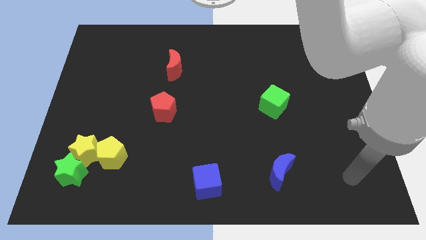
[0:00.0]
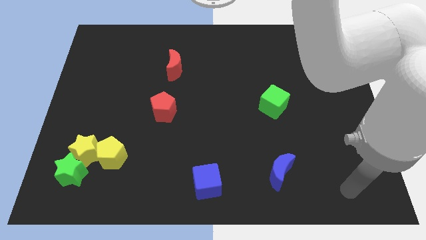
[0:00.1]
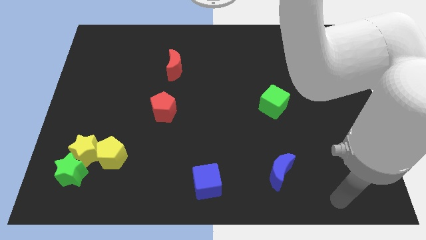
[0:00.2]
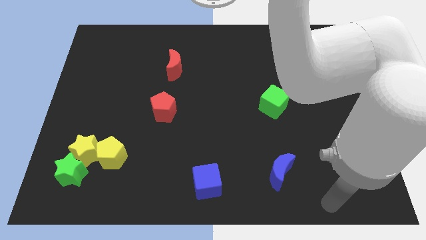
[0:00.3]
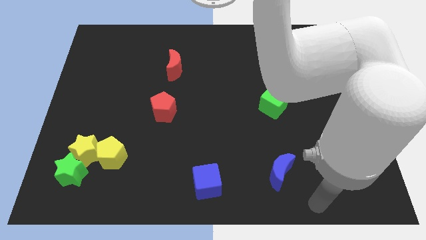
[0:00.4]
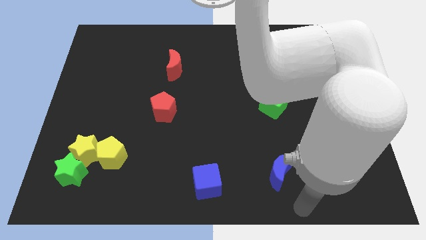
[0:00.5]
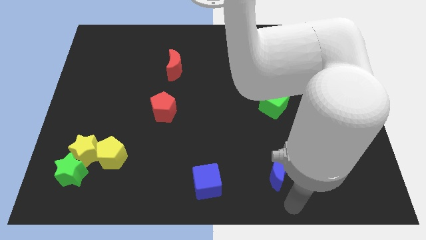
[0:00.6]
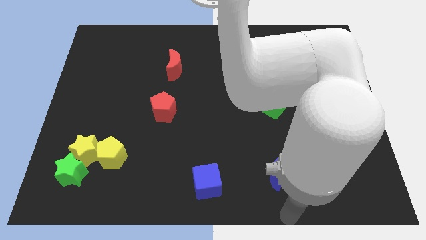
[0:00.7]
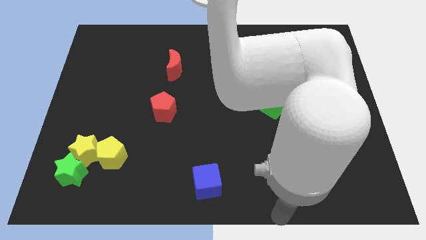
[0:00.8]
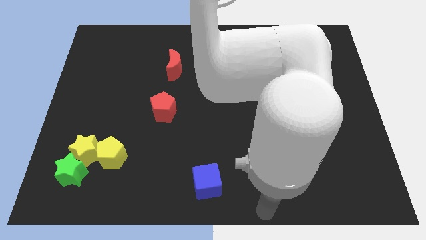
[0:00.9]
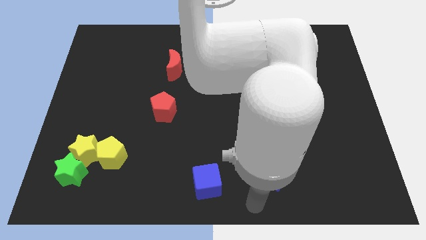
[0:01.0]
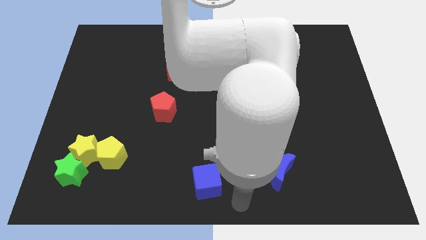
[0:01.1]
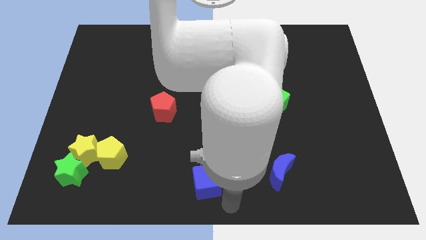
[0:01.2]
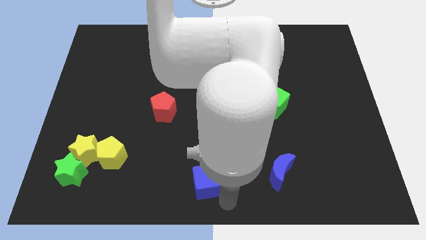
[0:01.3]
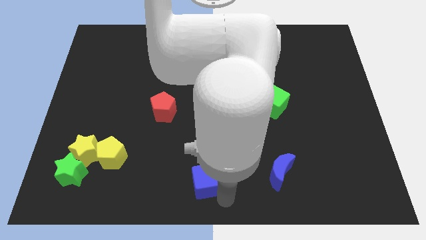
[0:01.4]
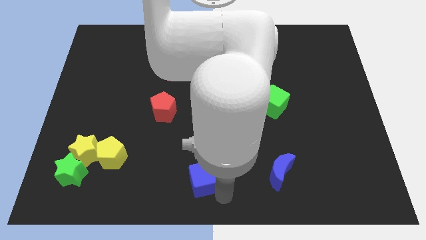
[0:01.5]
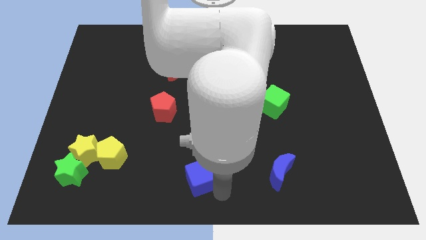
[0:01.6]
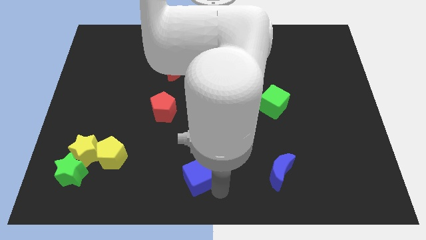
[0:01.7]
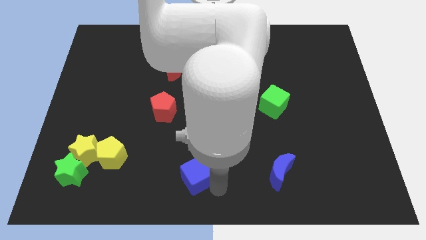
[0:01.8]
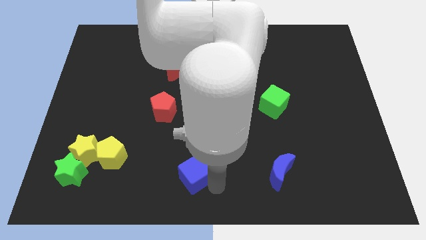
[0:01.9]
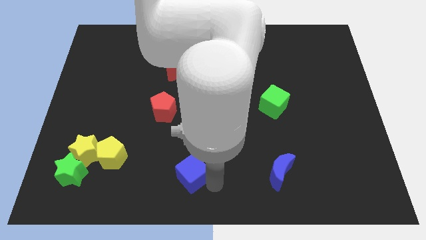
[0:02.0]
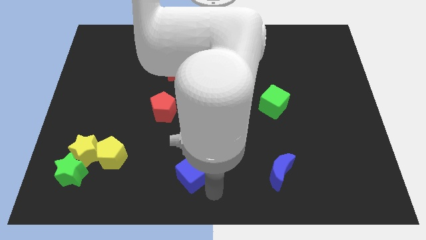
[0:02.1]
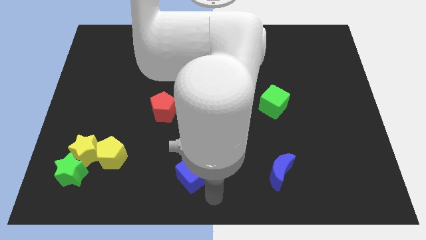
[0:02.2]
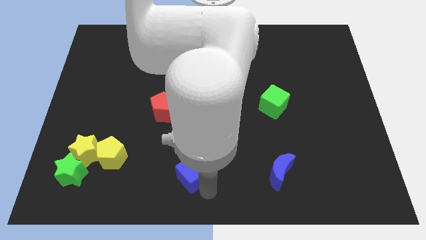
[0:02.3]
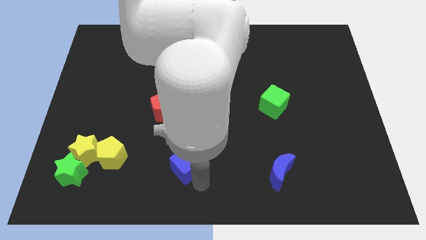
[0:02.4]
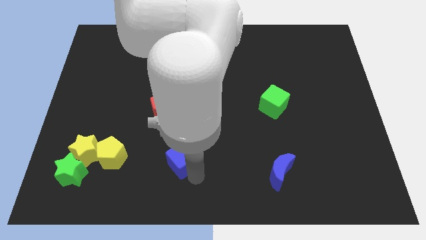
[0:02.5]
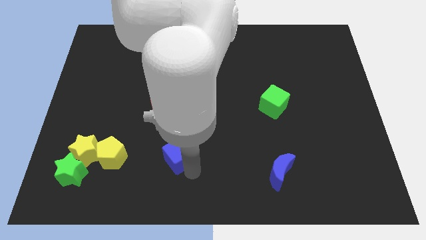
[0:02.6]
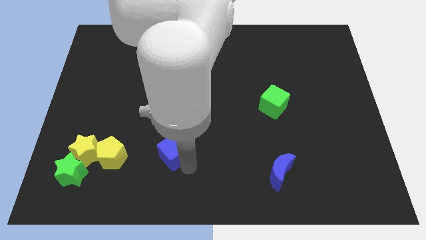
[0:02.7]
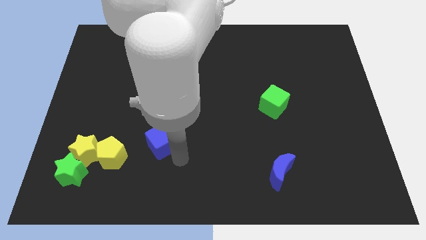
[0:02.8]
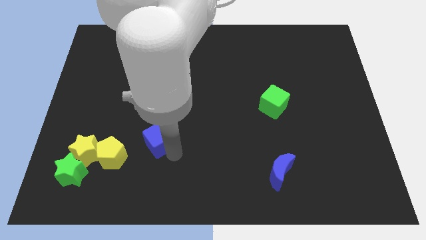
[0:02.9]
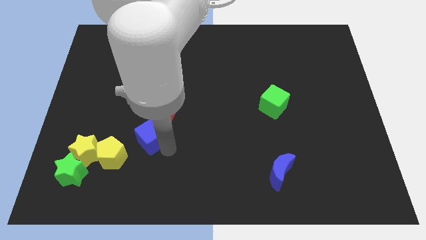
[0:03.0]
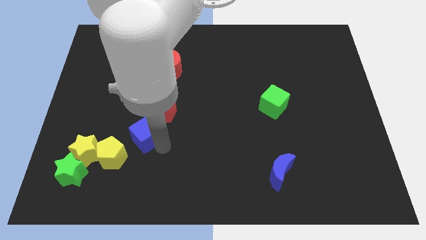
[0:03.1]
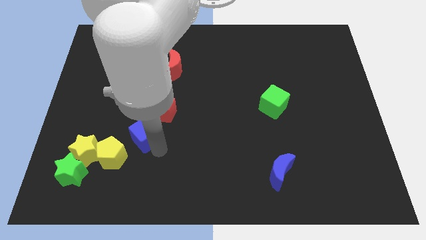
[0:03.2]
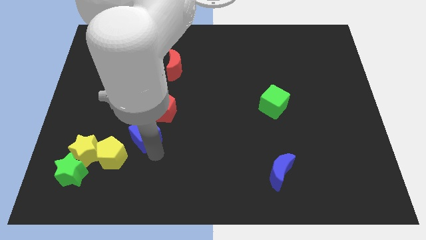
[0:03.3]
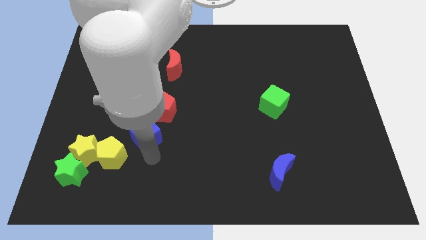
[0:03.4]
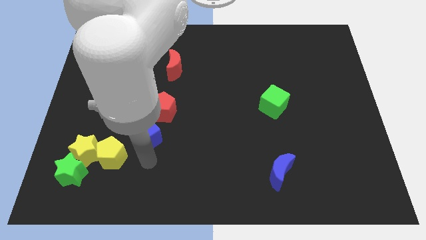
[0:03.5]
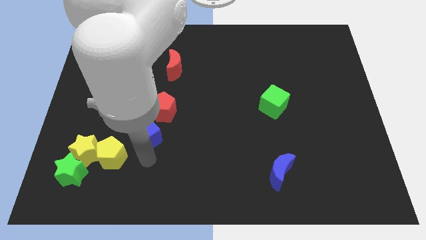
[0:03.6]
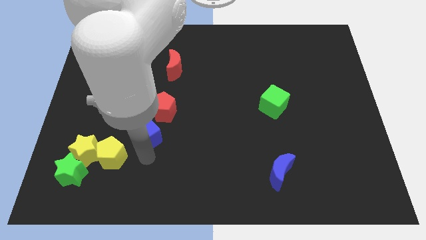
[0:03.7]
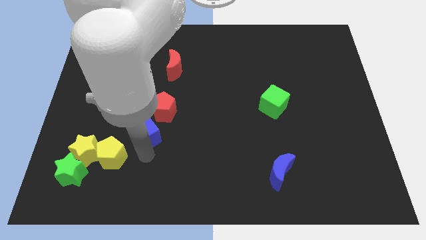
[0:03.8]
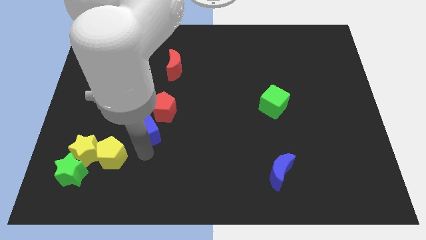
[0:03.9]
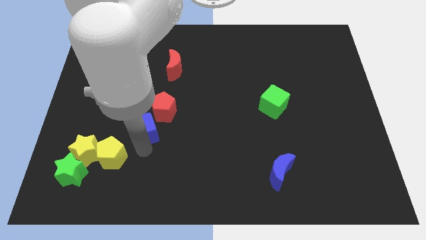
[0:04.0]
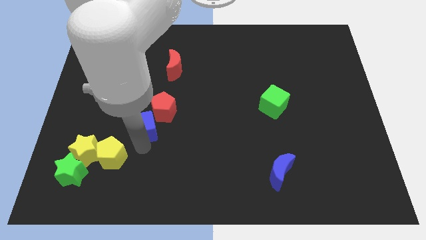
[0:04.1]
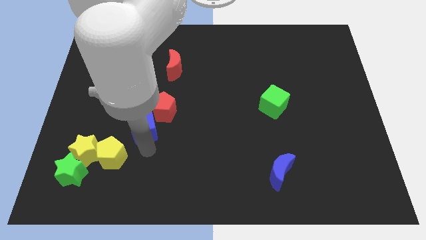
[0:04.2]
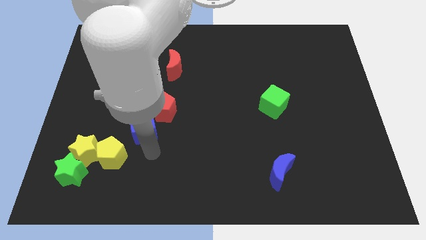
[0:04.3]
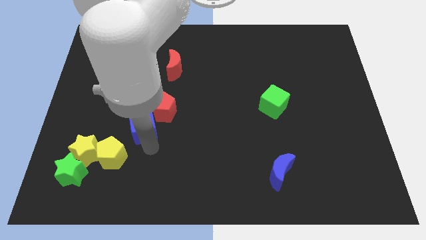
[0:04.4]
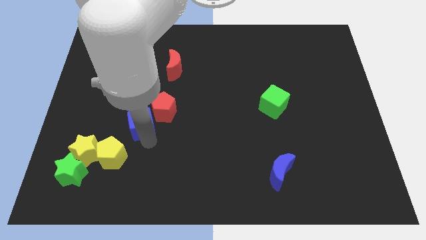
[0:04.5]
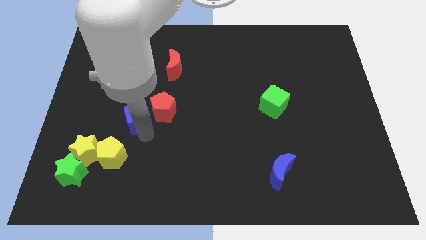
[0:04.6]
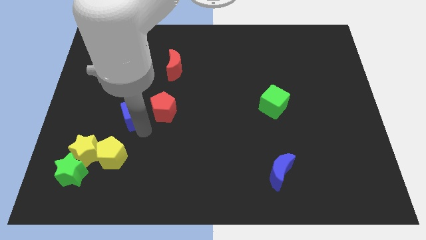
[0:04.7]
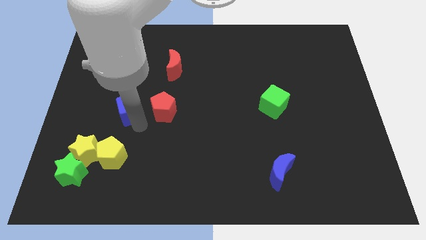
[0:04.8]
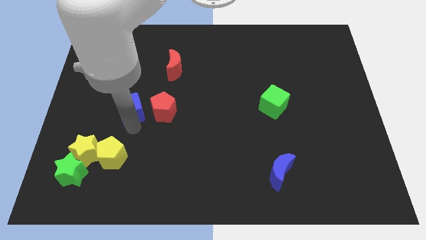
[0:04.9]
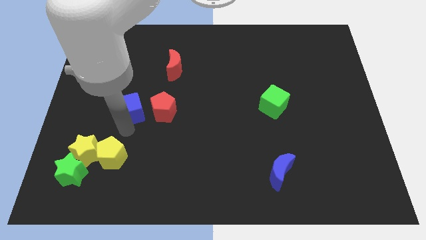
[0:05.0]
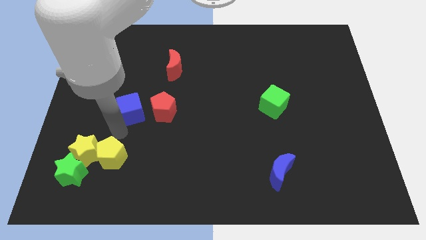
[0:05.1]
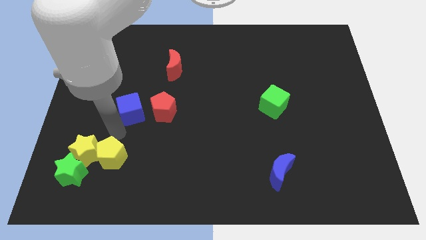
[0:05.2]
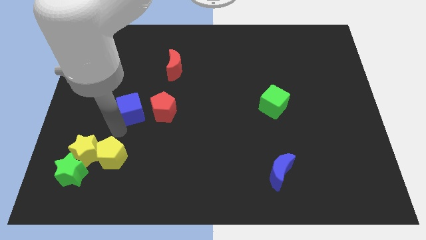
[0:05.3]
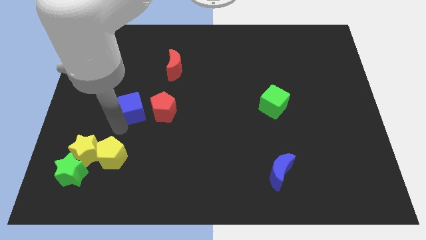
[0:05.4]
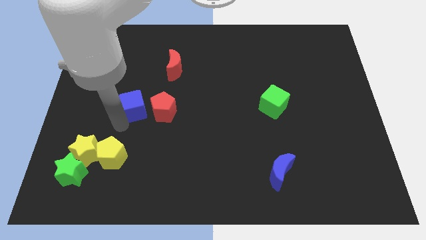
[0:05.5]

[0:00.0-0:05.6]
slide the blue cube to the top left of the red pentagon

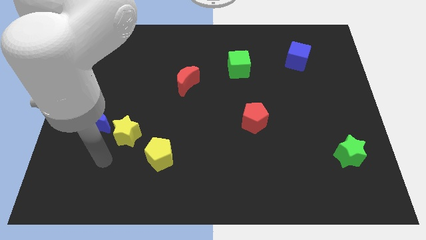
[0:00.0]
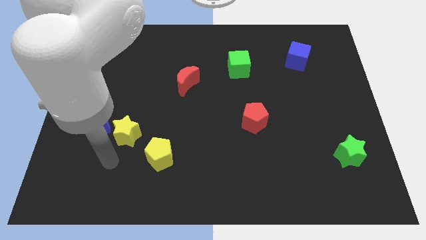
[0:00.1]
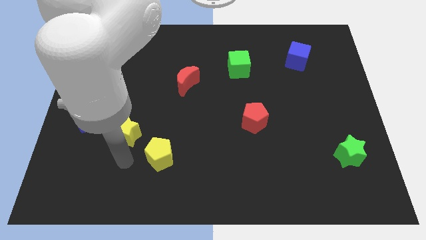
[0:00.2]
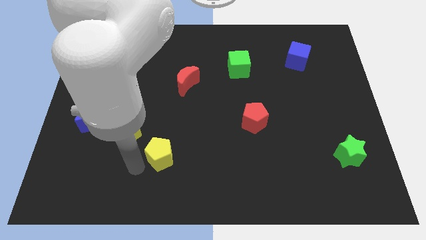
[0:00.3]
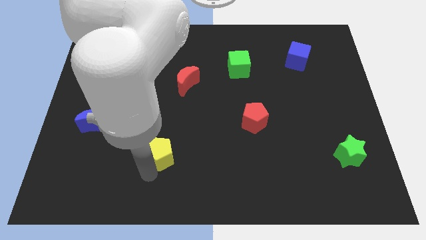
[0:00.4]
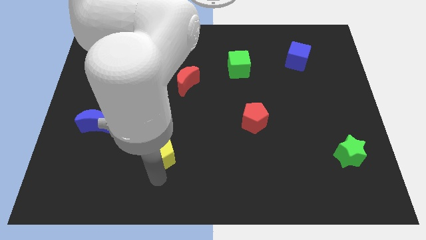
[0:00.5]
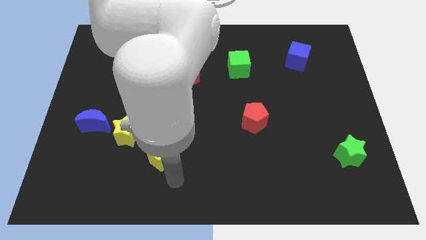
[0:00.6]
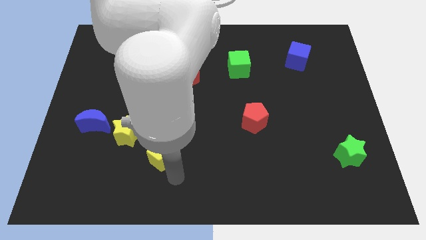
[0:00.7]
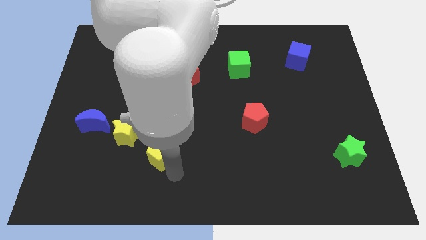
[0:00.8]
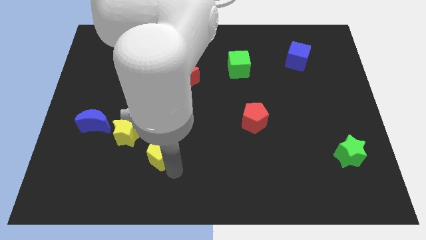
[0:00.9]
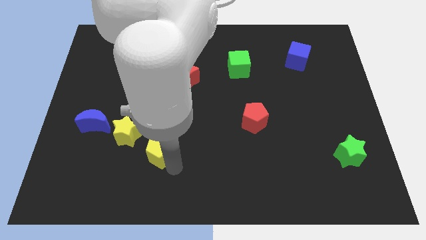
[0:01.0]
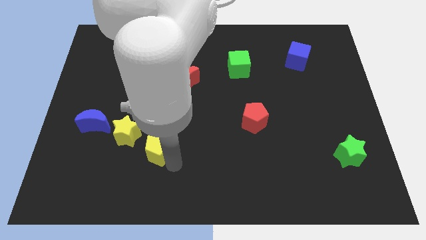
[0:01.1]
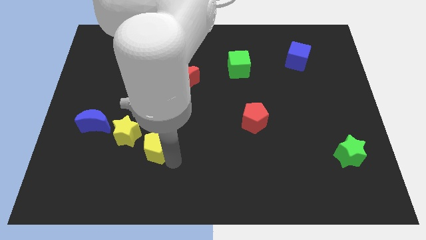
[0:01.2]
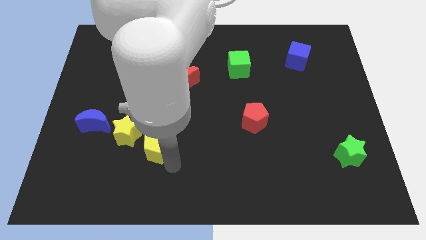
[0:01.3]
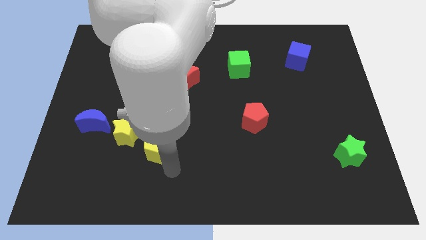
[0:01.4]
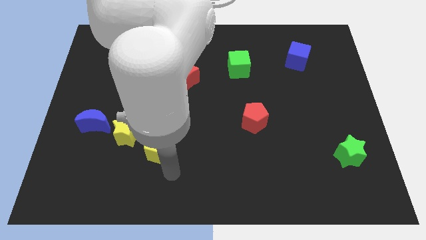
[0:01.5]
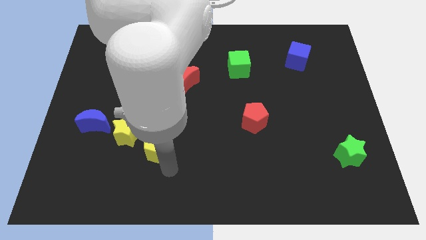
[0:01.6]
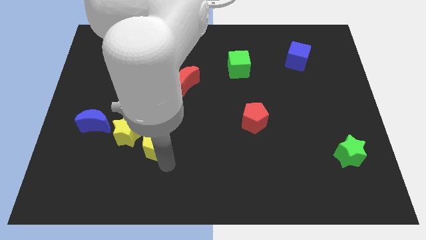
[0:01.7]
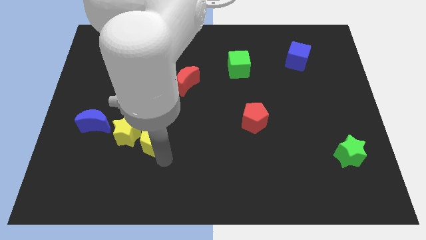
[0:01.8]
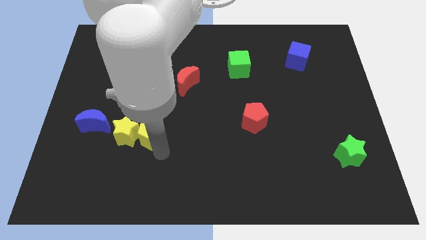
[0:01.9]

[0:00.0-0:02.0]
move the yellow pentagon just right of the blue moon

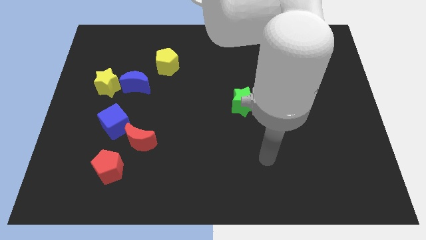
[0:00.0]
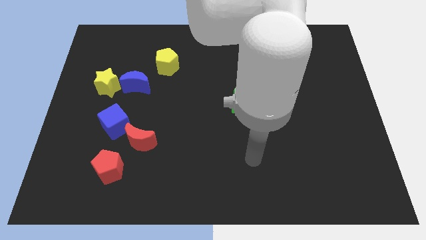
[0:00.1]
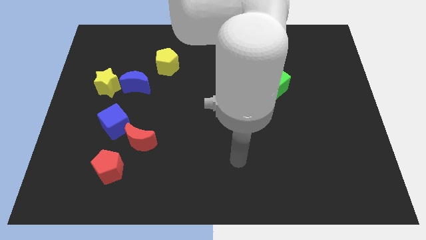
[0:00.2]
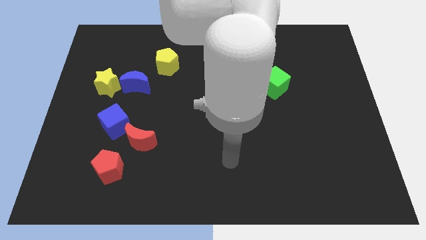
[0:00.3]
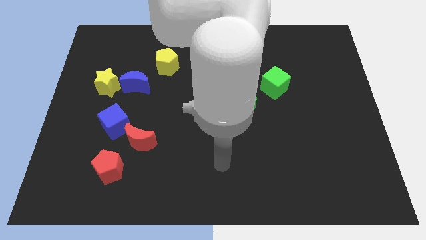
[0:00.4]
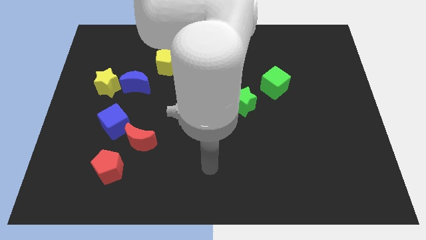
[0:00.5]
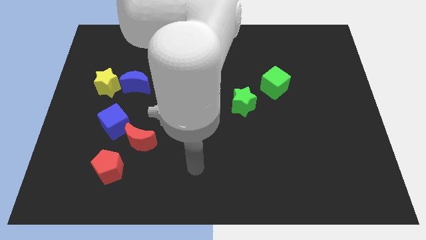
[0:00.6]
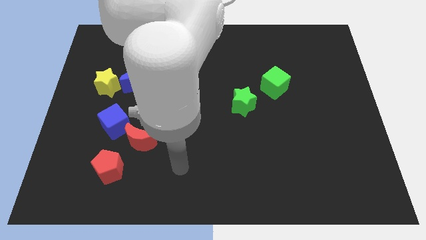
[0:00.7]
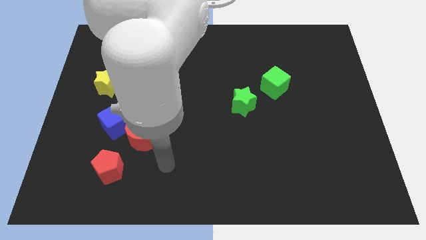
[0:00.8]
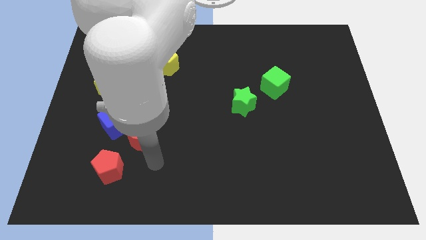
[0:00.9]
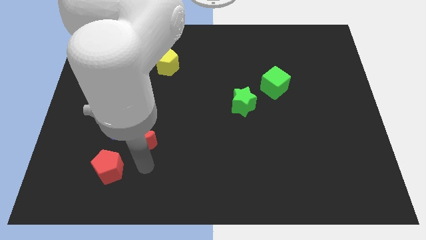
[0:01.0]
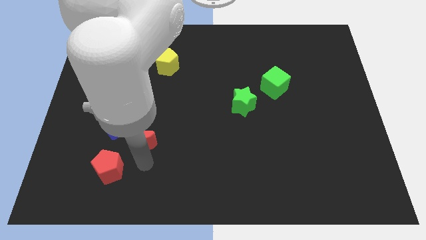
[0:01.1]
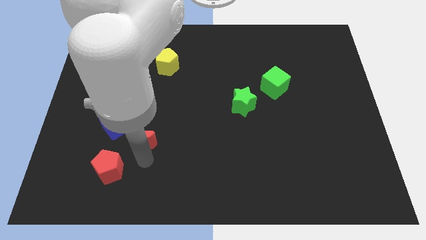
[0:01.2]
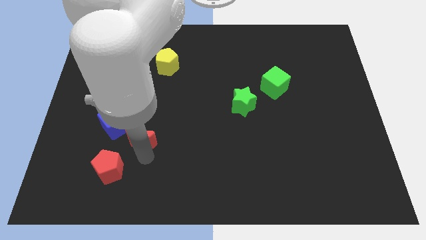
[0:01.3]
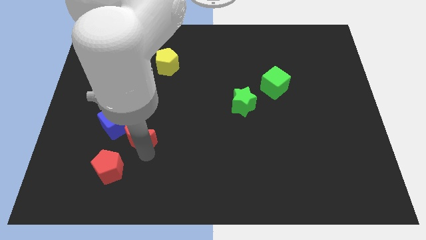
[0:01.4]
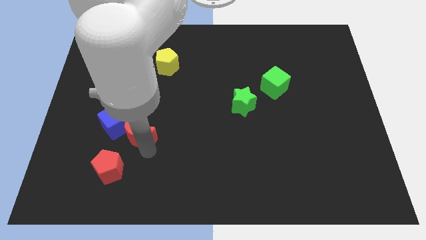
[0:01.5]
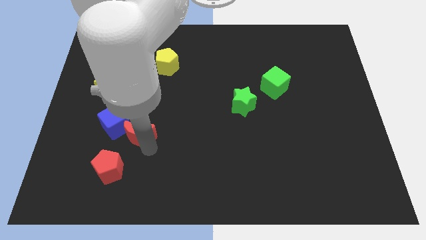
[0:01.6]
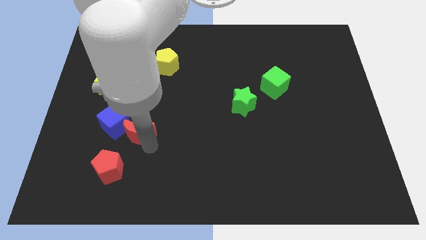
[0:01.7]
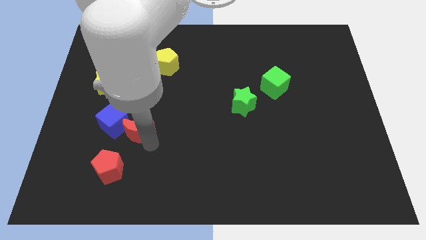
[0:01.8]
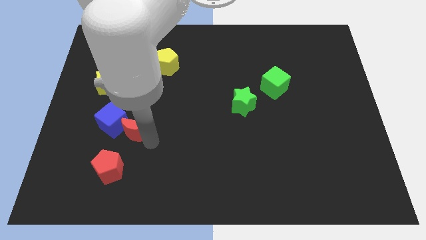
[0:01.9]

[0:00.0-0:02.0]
move the red moon to the top of the red pentagon
